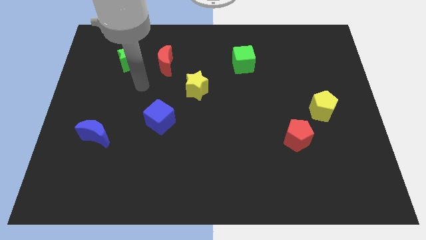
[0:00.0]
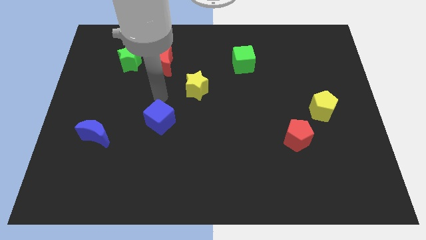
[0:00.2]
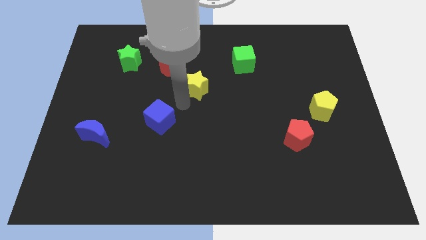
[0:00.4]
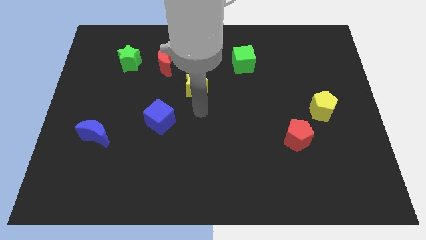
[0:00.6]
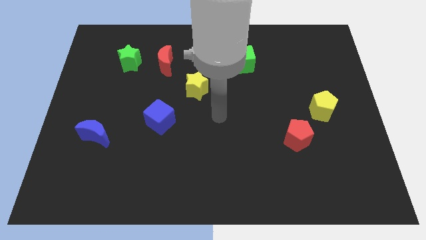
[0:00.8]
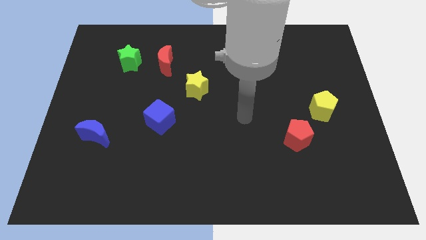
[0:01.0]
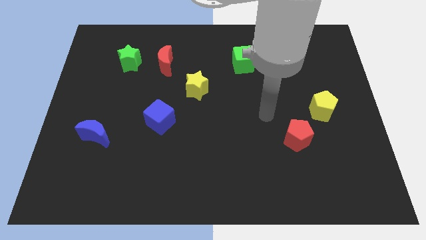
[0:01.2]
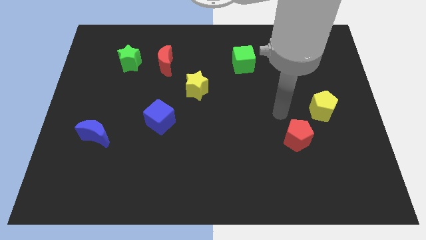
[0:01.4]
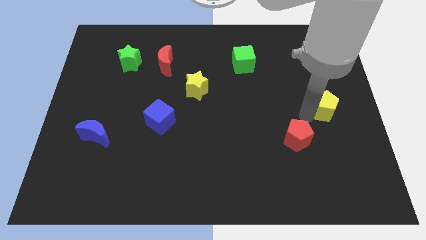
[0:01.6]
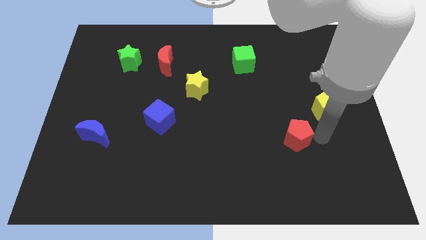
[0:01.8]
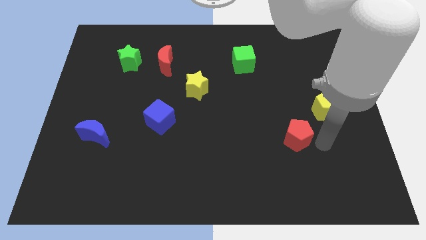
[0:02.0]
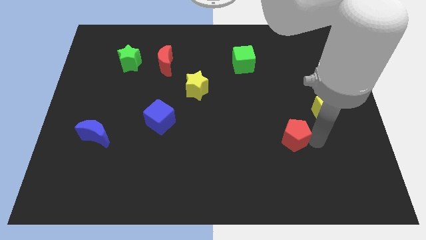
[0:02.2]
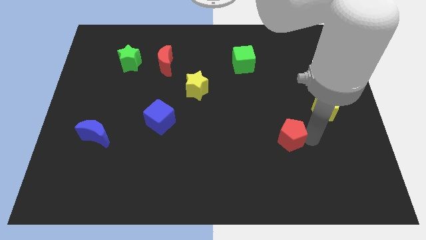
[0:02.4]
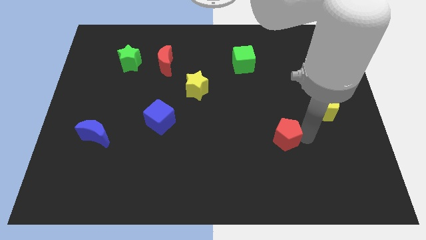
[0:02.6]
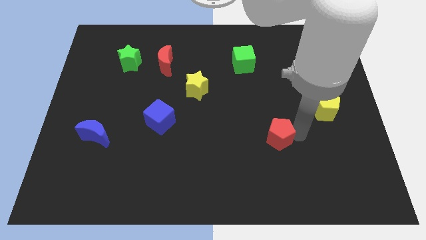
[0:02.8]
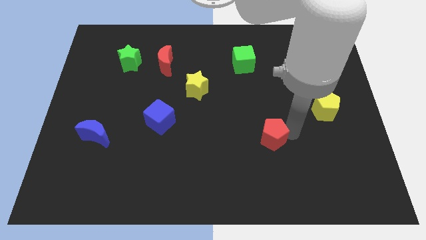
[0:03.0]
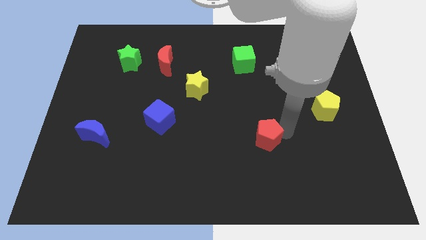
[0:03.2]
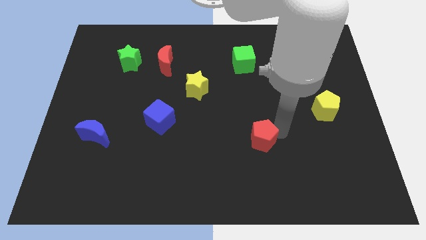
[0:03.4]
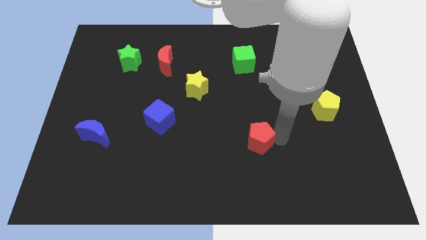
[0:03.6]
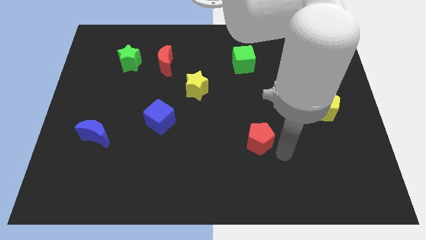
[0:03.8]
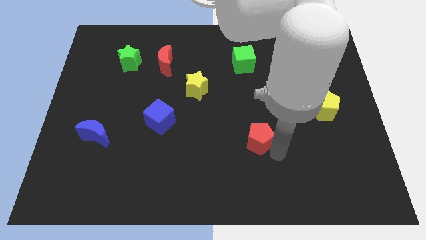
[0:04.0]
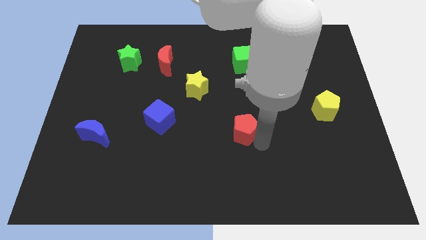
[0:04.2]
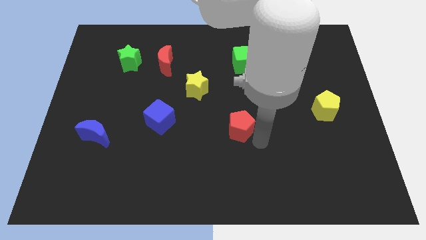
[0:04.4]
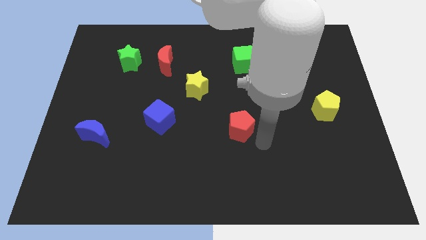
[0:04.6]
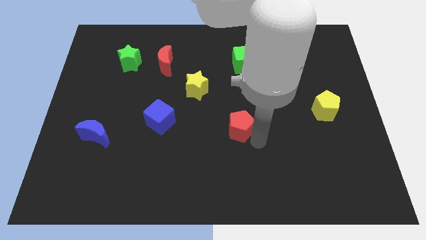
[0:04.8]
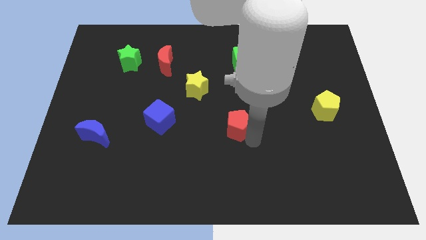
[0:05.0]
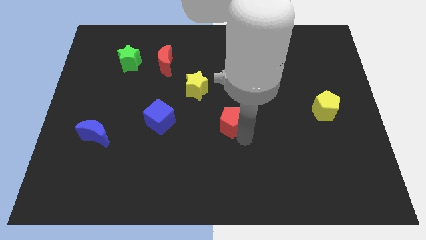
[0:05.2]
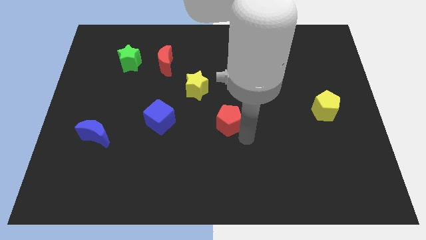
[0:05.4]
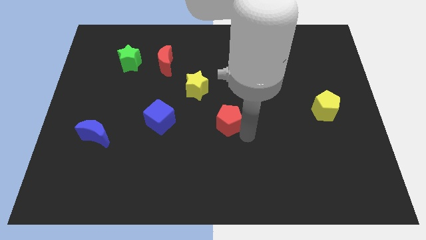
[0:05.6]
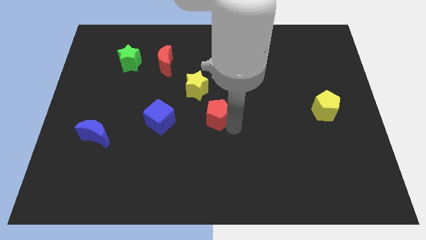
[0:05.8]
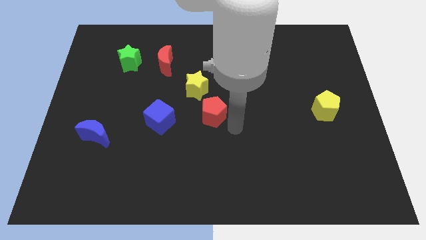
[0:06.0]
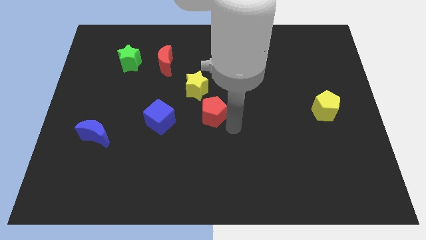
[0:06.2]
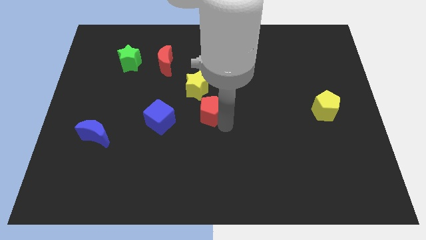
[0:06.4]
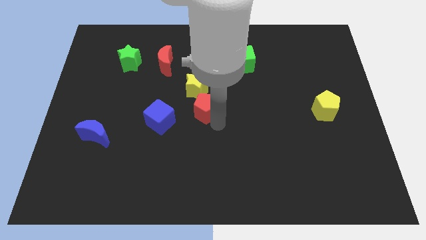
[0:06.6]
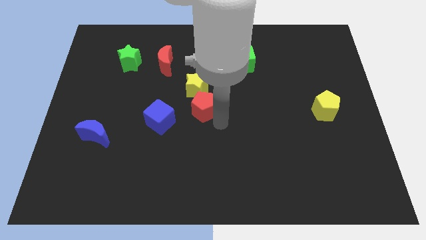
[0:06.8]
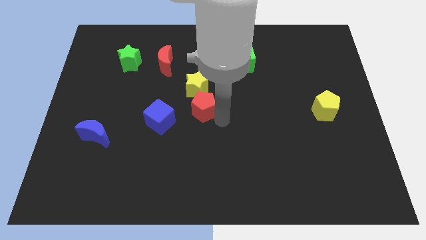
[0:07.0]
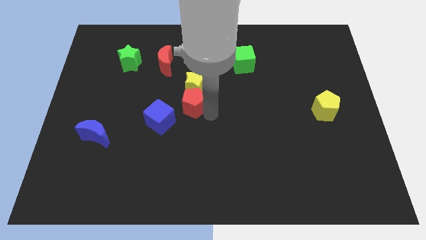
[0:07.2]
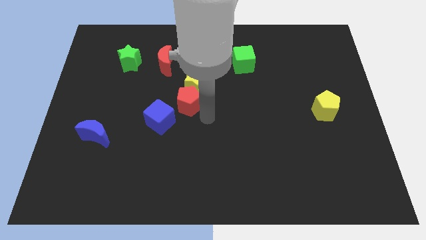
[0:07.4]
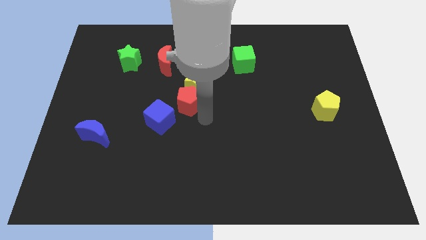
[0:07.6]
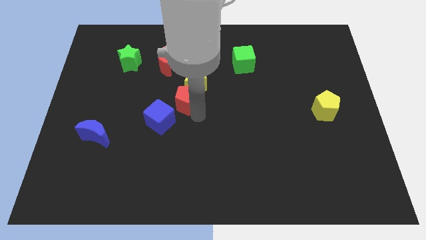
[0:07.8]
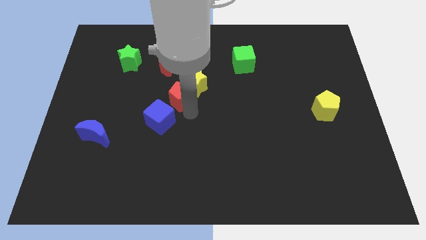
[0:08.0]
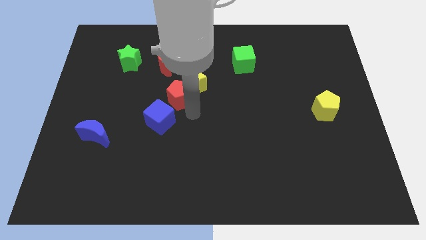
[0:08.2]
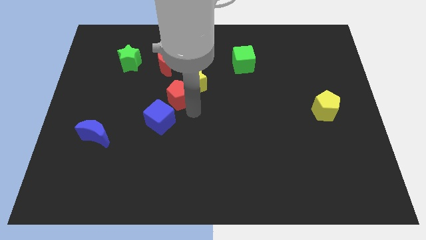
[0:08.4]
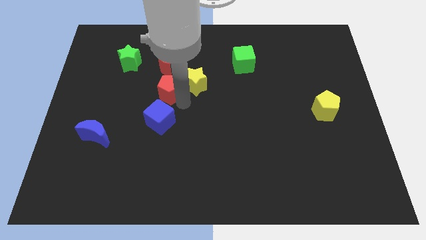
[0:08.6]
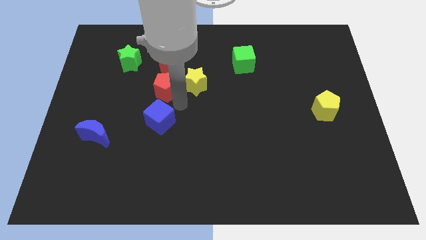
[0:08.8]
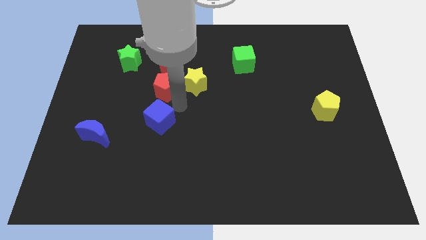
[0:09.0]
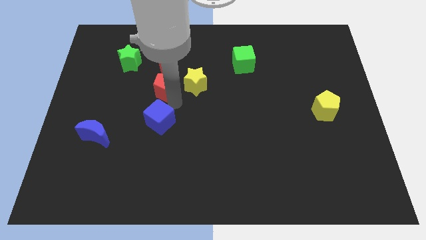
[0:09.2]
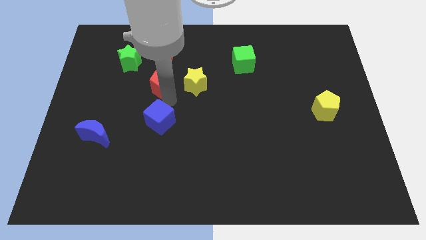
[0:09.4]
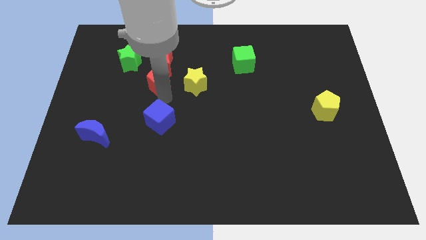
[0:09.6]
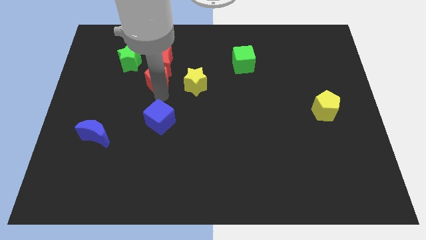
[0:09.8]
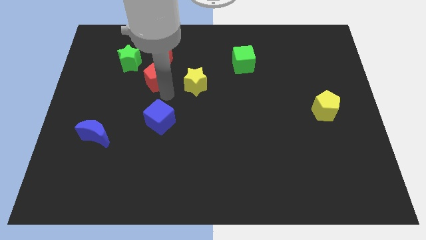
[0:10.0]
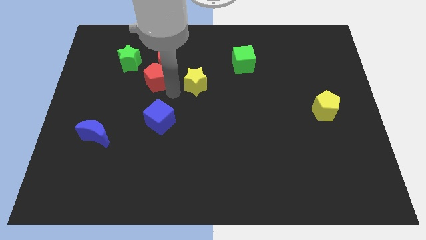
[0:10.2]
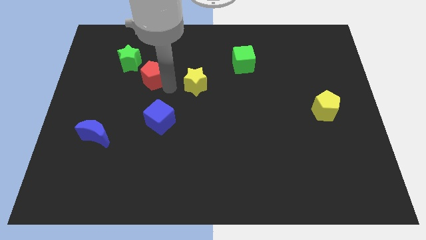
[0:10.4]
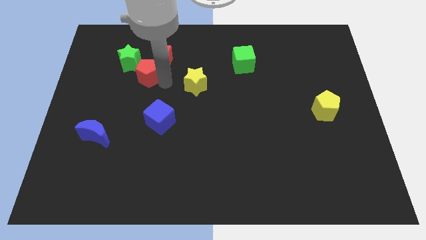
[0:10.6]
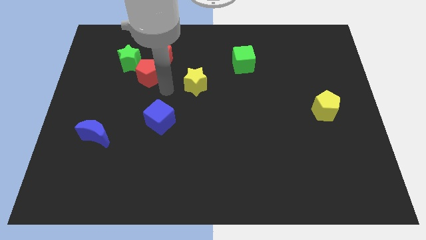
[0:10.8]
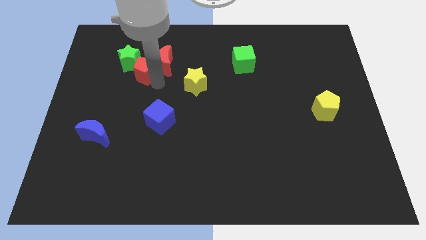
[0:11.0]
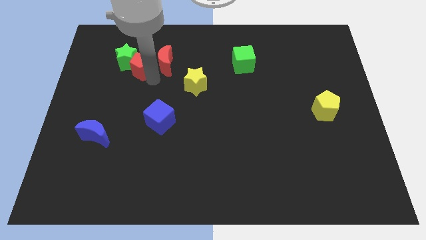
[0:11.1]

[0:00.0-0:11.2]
push the red pentagon next to the green star

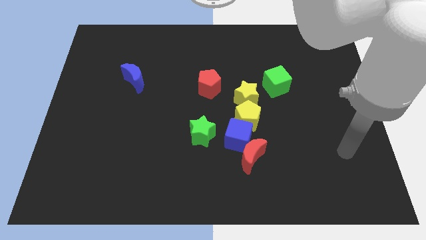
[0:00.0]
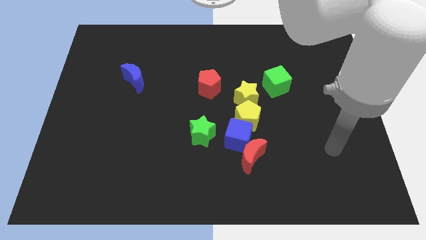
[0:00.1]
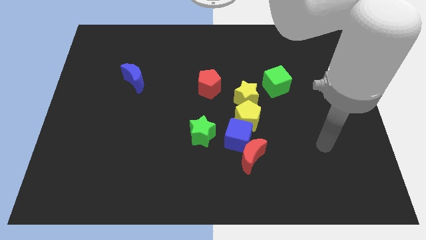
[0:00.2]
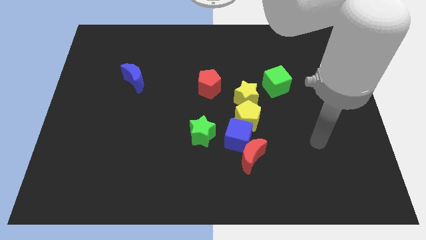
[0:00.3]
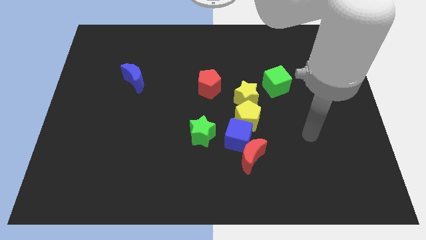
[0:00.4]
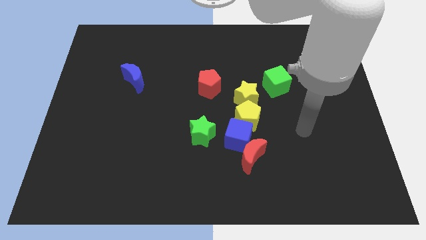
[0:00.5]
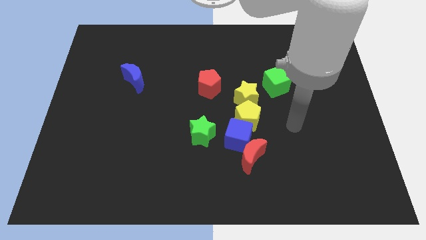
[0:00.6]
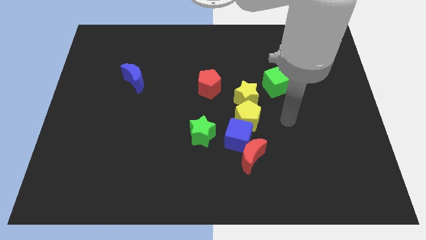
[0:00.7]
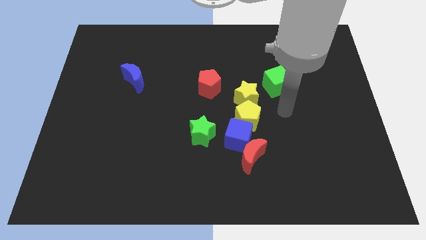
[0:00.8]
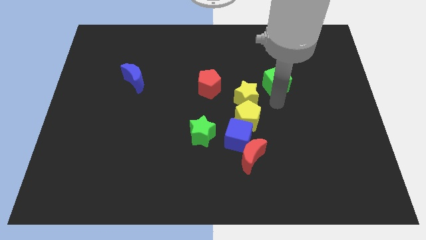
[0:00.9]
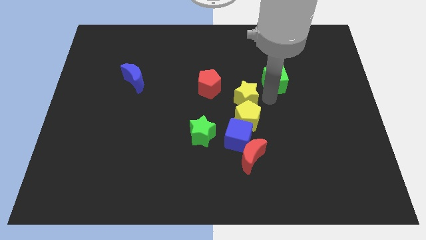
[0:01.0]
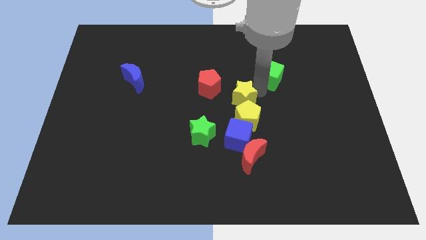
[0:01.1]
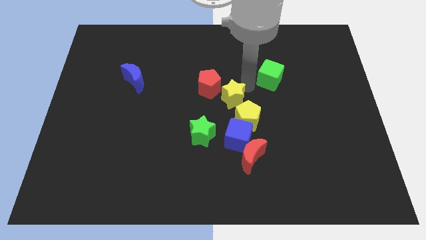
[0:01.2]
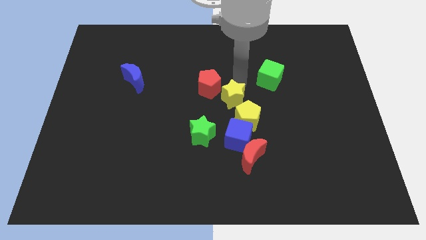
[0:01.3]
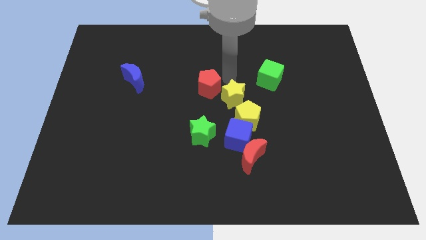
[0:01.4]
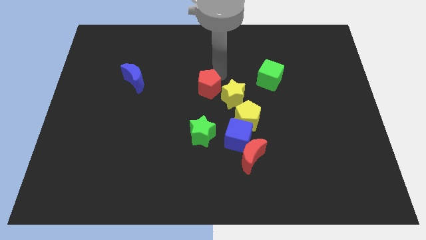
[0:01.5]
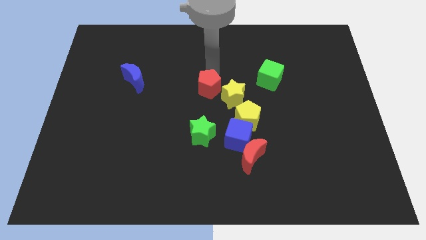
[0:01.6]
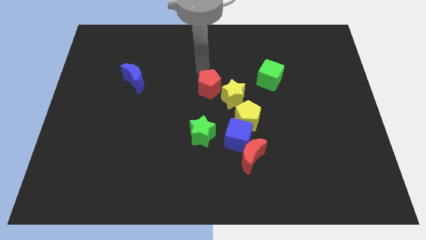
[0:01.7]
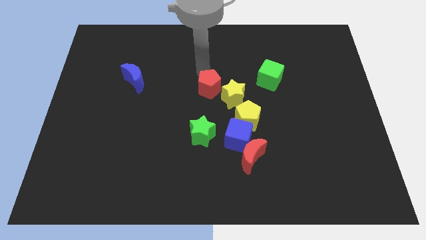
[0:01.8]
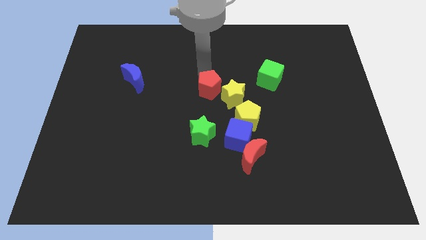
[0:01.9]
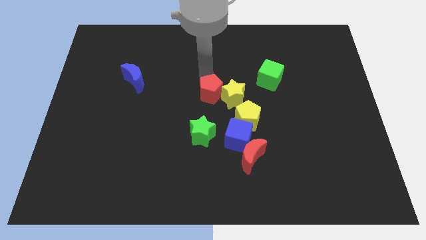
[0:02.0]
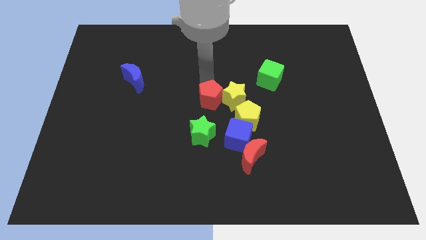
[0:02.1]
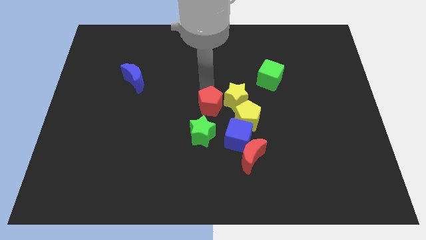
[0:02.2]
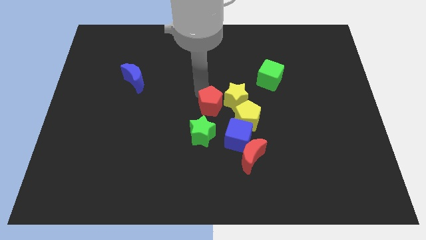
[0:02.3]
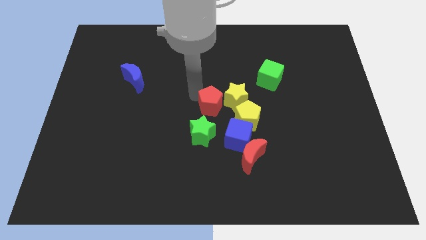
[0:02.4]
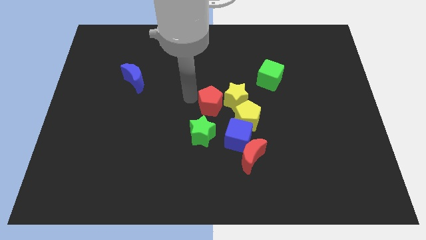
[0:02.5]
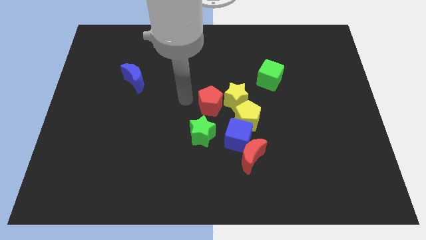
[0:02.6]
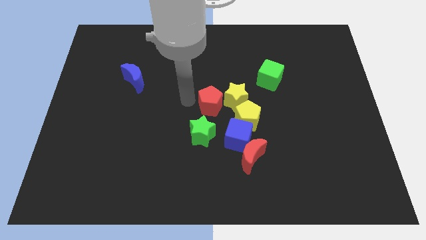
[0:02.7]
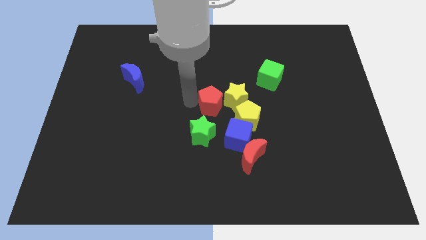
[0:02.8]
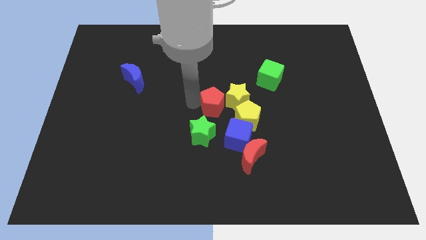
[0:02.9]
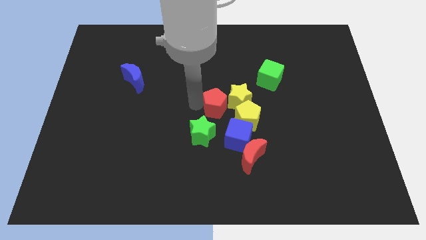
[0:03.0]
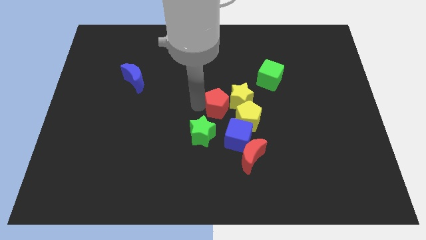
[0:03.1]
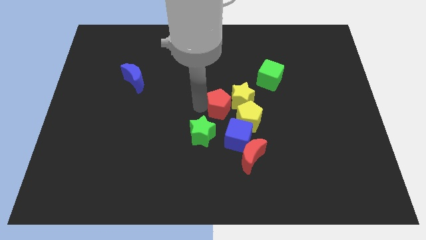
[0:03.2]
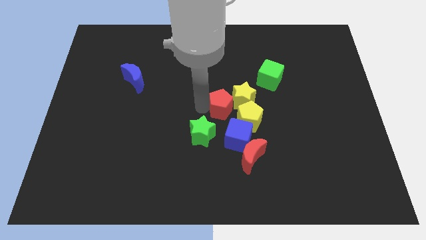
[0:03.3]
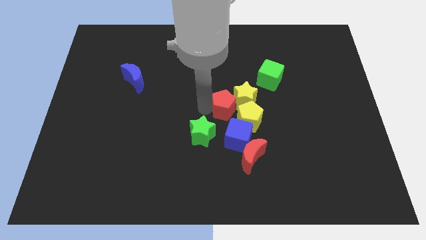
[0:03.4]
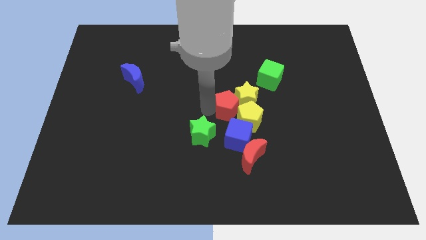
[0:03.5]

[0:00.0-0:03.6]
slide the red pentagon close to the yellow pentagon
